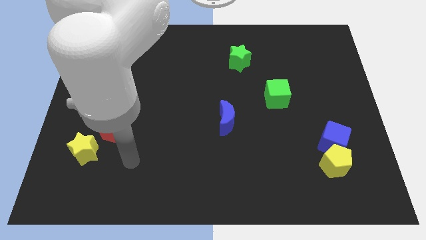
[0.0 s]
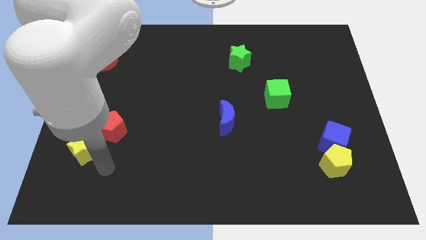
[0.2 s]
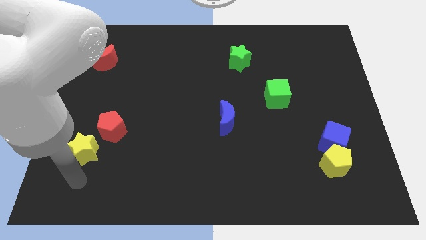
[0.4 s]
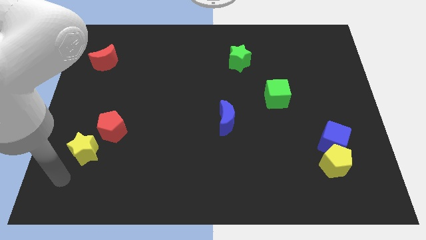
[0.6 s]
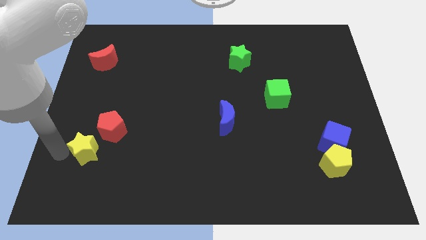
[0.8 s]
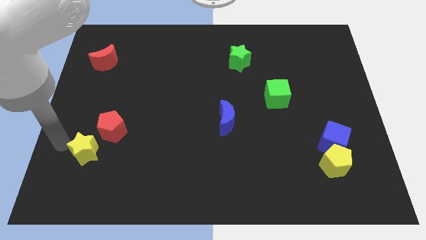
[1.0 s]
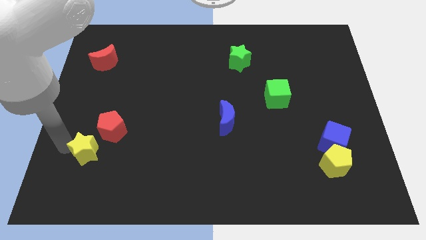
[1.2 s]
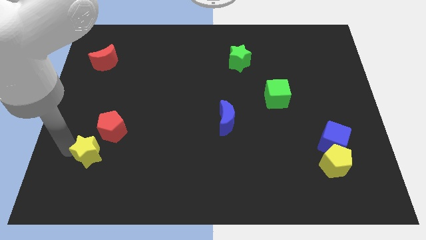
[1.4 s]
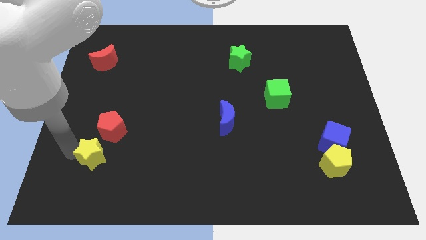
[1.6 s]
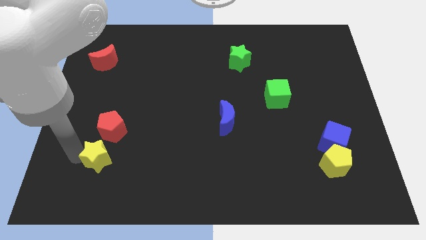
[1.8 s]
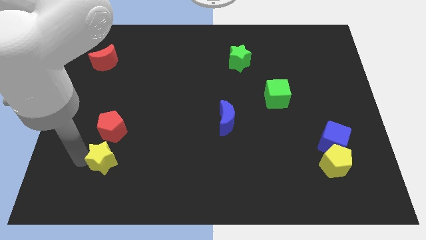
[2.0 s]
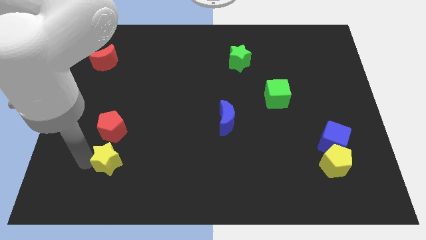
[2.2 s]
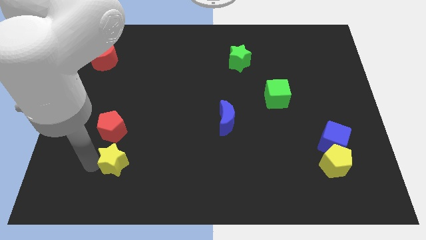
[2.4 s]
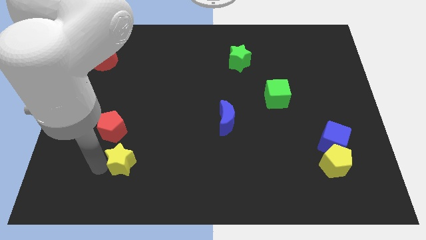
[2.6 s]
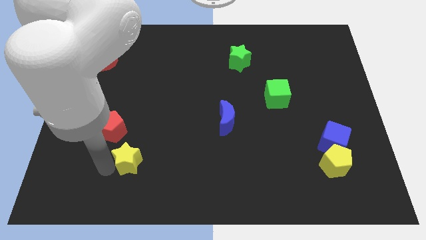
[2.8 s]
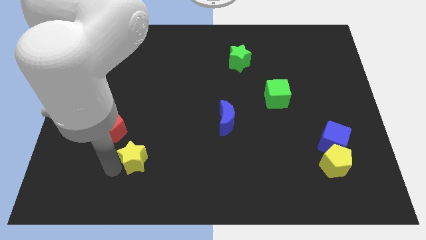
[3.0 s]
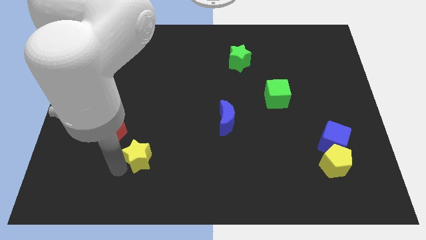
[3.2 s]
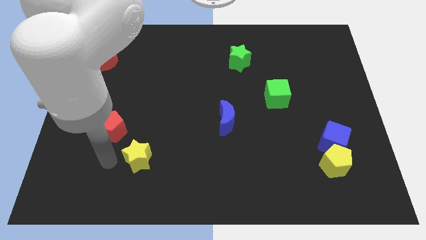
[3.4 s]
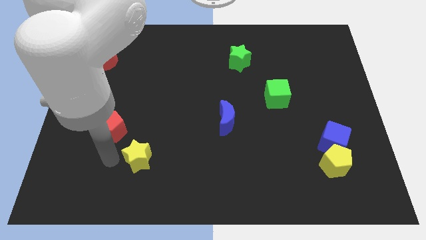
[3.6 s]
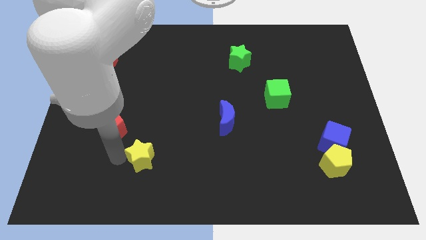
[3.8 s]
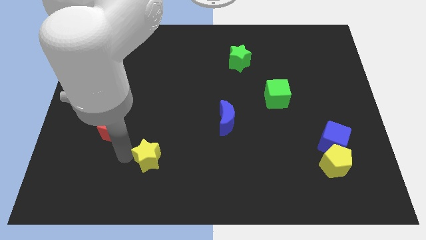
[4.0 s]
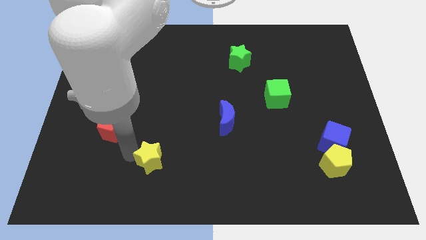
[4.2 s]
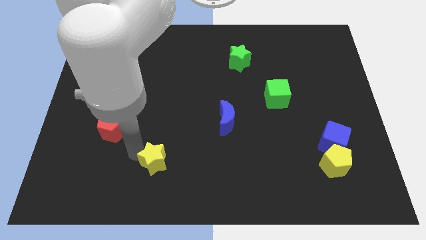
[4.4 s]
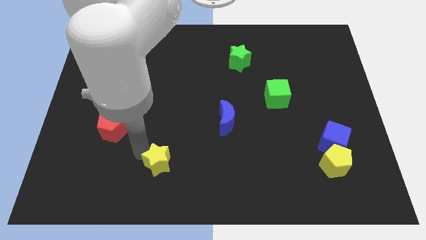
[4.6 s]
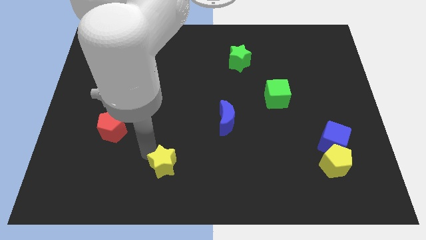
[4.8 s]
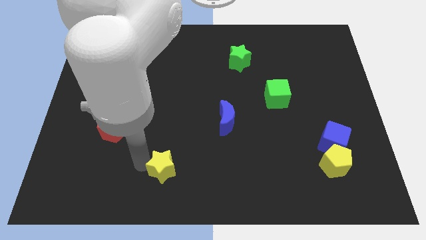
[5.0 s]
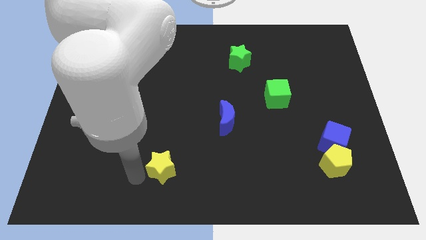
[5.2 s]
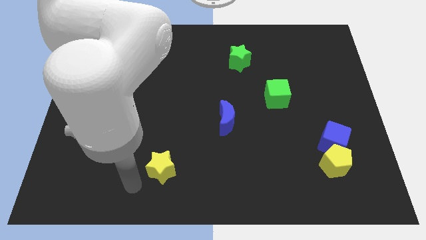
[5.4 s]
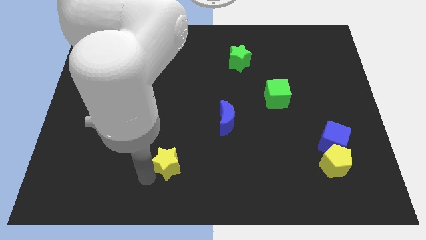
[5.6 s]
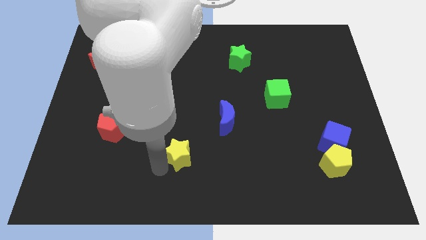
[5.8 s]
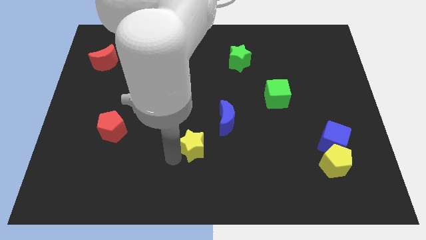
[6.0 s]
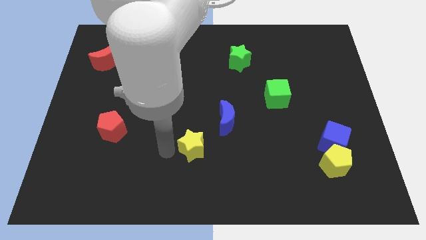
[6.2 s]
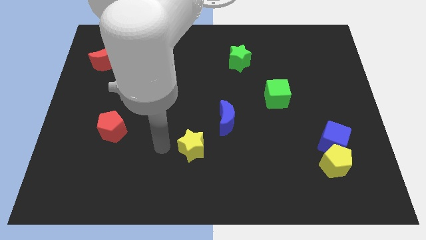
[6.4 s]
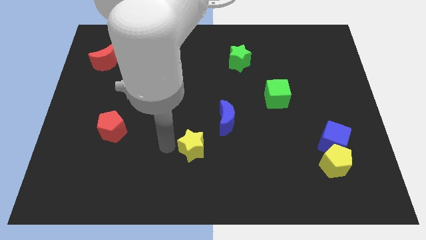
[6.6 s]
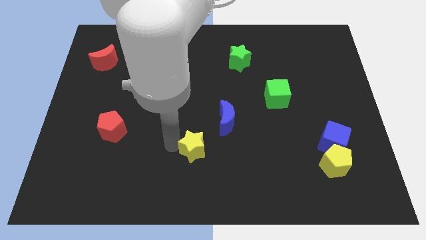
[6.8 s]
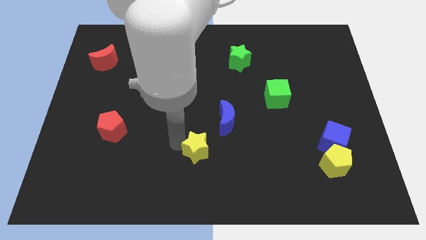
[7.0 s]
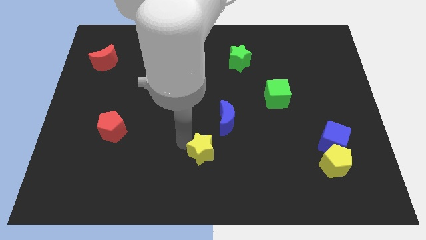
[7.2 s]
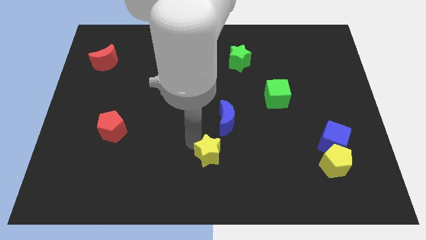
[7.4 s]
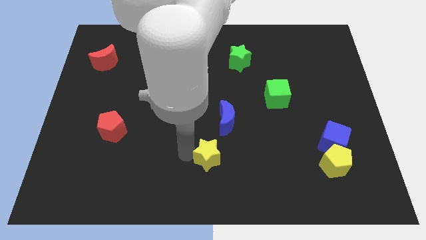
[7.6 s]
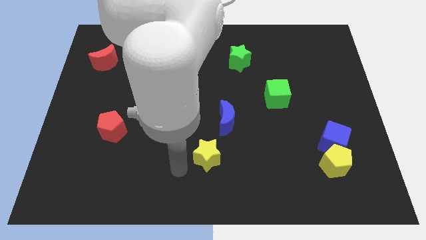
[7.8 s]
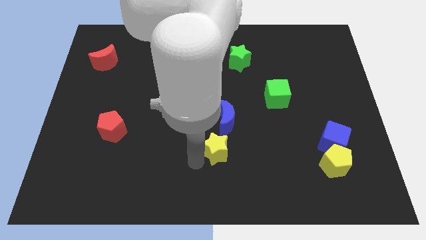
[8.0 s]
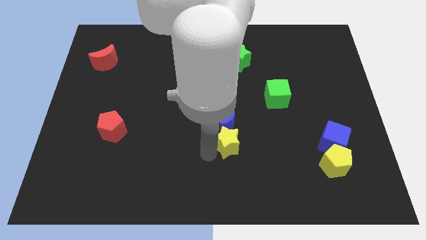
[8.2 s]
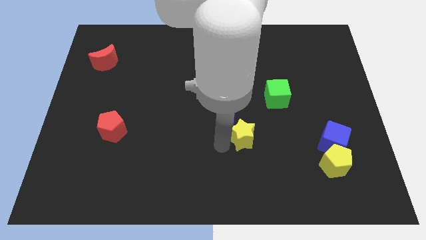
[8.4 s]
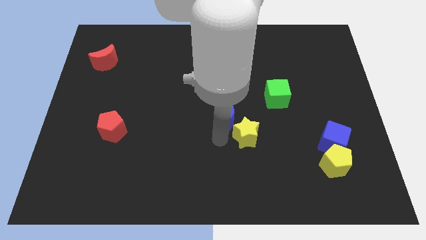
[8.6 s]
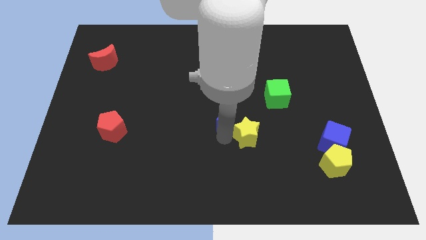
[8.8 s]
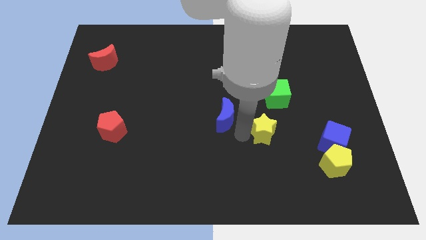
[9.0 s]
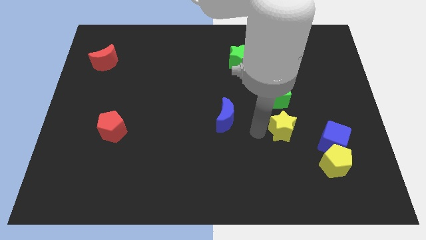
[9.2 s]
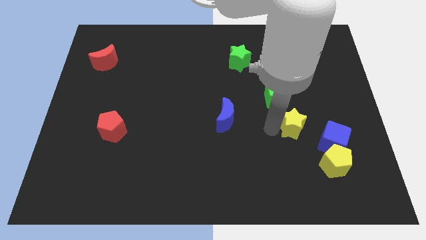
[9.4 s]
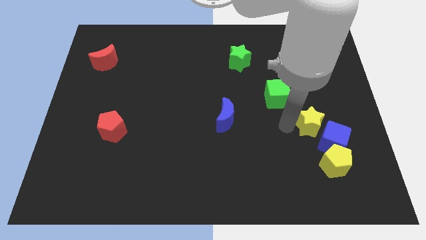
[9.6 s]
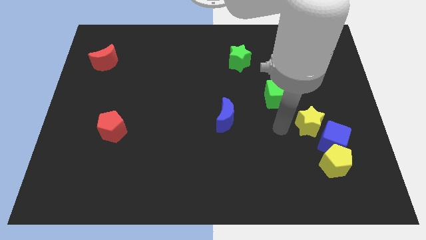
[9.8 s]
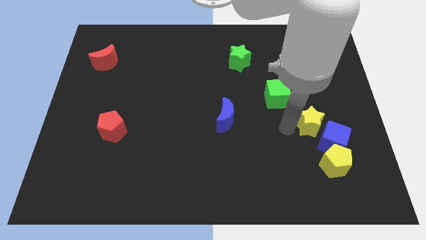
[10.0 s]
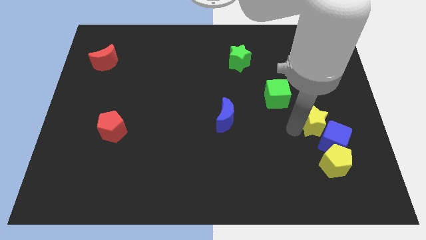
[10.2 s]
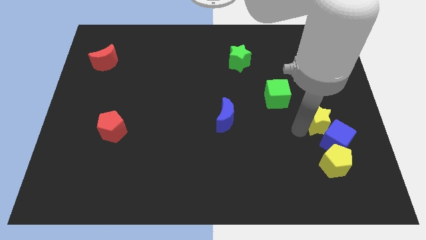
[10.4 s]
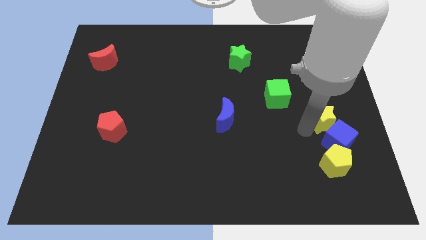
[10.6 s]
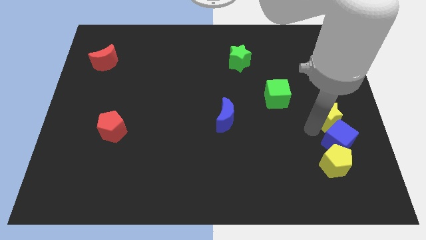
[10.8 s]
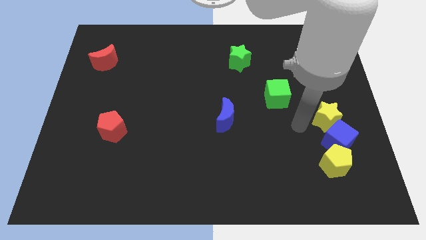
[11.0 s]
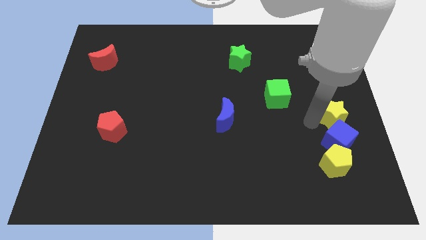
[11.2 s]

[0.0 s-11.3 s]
push the yellow star to the right side
